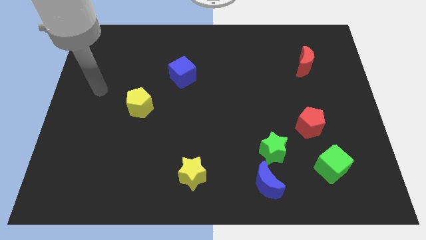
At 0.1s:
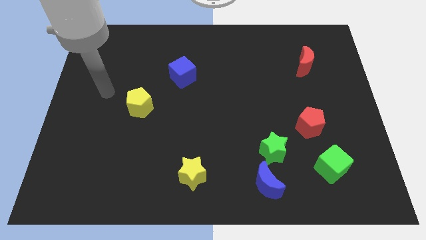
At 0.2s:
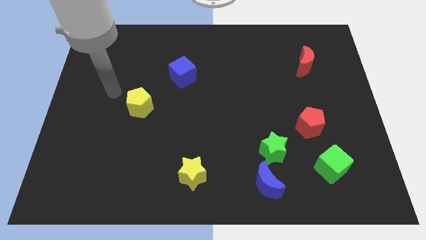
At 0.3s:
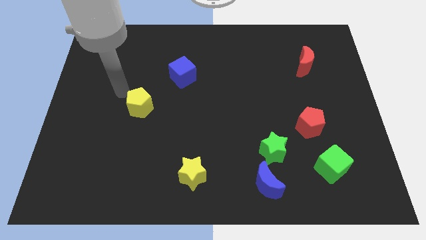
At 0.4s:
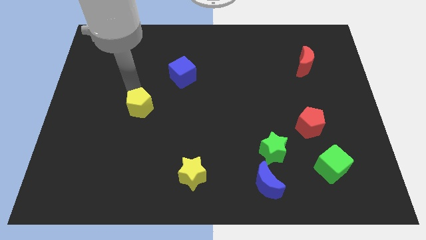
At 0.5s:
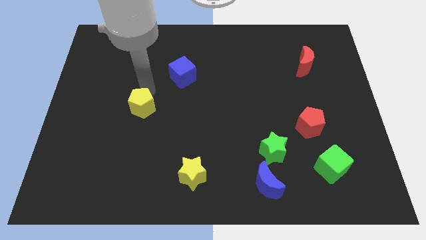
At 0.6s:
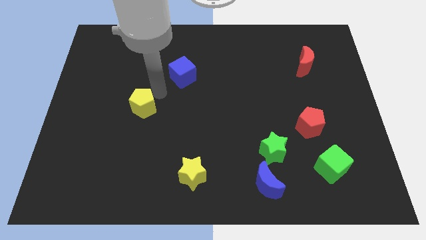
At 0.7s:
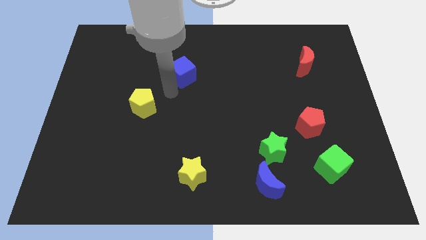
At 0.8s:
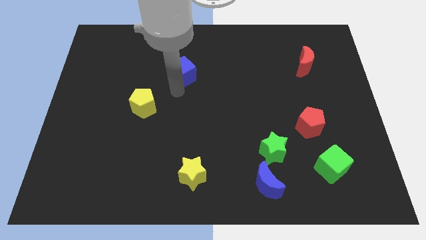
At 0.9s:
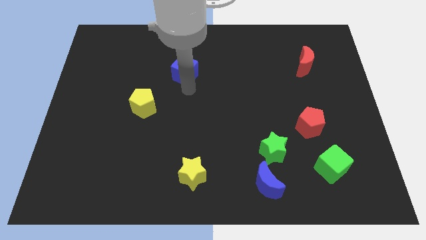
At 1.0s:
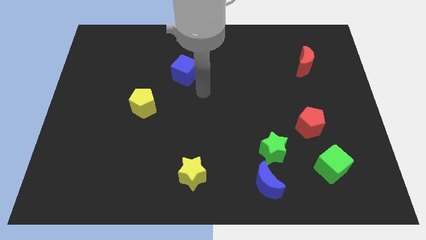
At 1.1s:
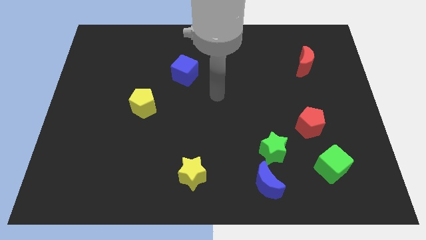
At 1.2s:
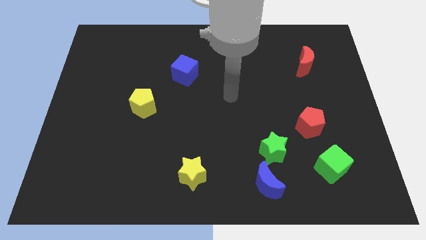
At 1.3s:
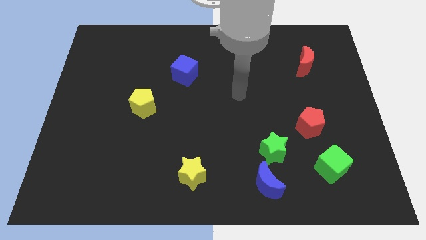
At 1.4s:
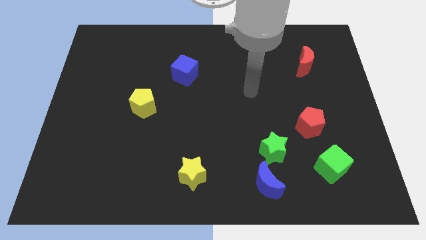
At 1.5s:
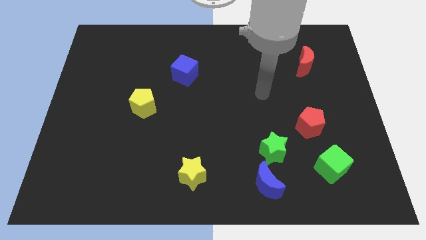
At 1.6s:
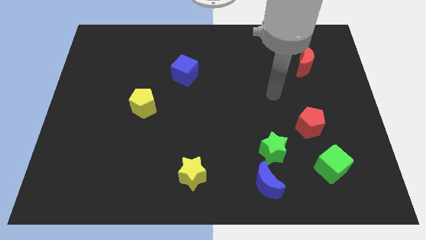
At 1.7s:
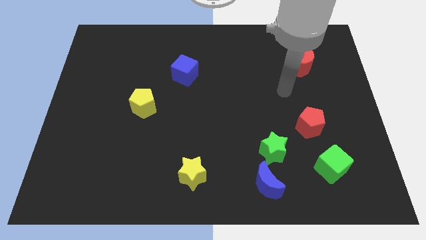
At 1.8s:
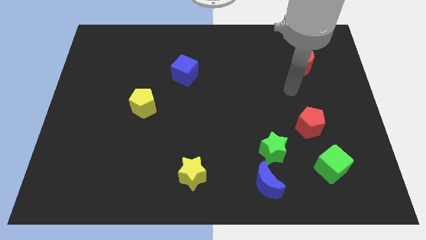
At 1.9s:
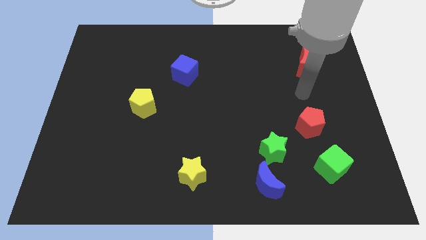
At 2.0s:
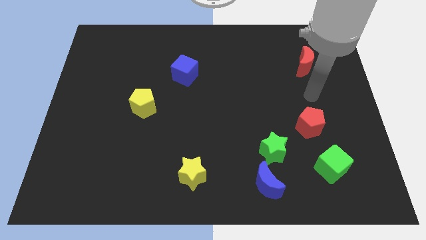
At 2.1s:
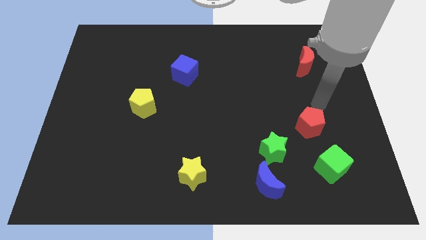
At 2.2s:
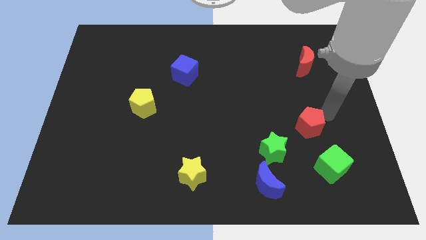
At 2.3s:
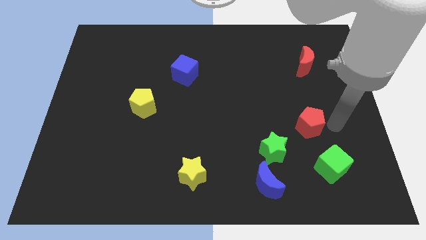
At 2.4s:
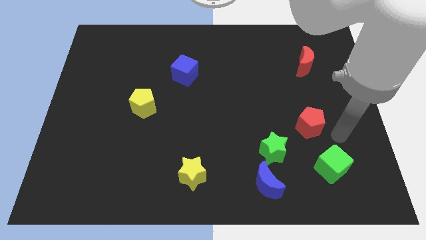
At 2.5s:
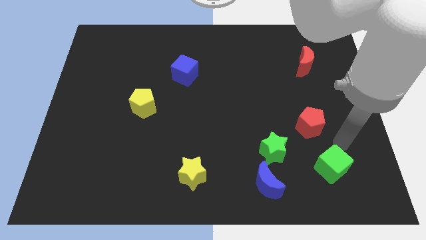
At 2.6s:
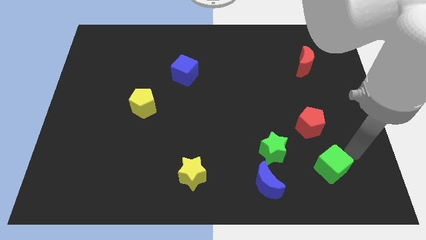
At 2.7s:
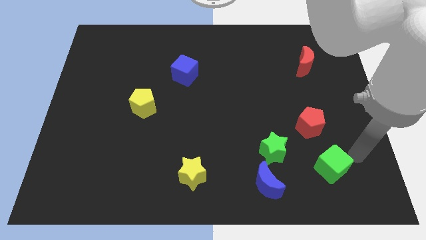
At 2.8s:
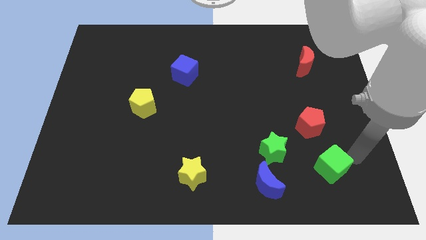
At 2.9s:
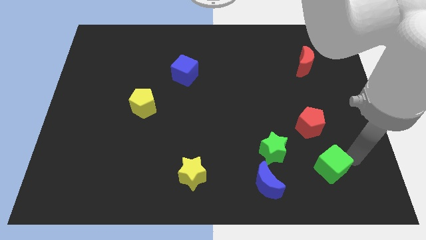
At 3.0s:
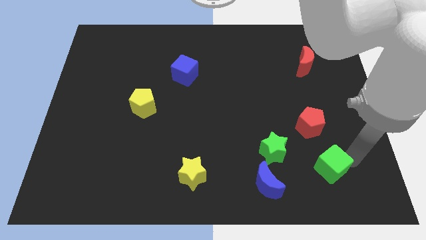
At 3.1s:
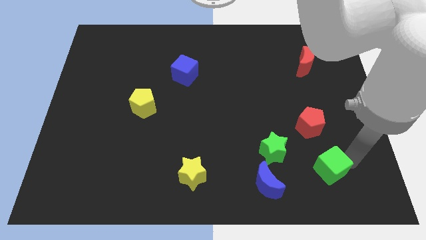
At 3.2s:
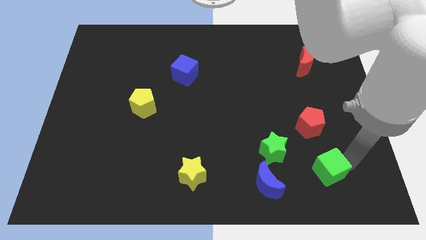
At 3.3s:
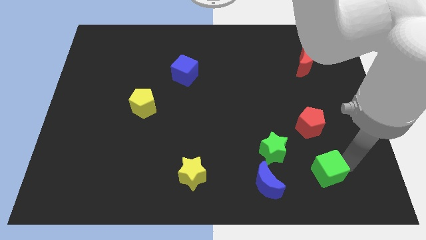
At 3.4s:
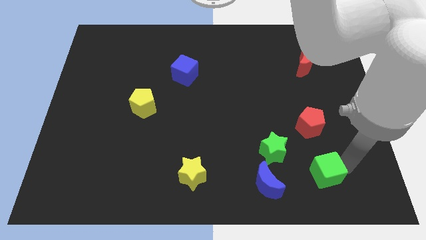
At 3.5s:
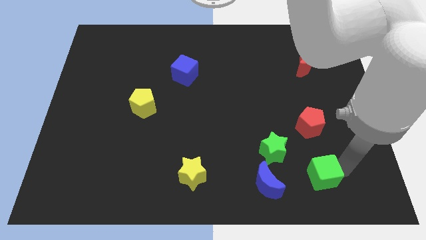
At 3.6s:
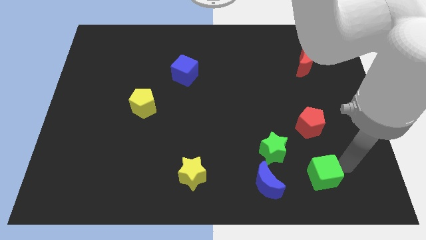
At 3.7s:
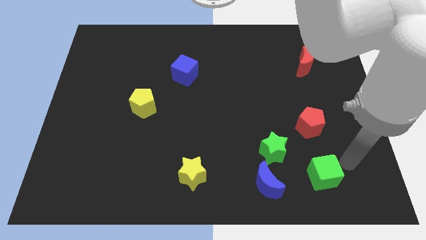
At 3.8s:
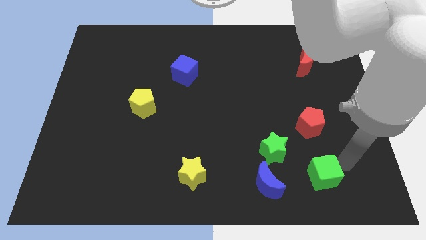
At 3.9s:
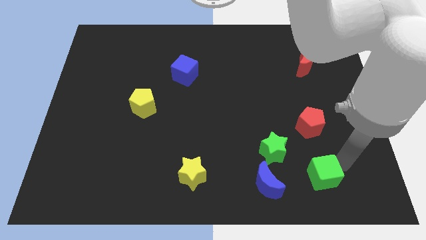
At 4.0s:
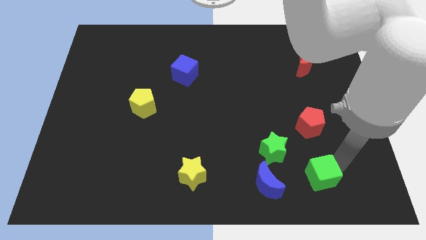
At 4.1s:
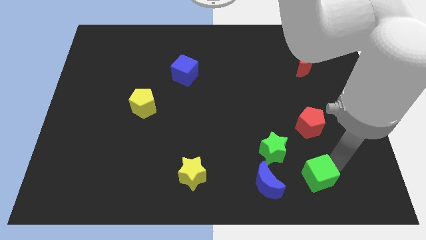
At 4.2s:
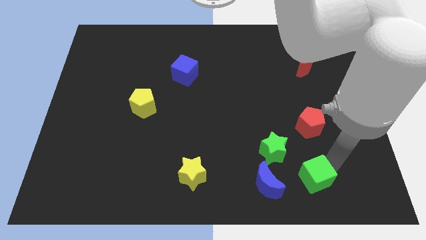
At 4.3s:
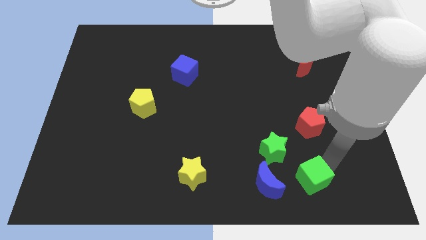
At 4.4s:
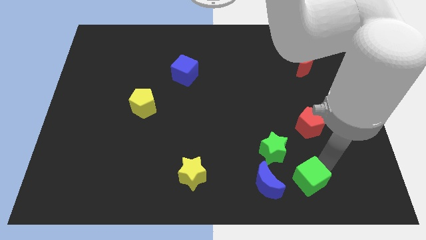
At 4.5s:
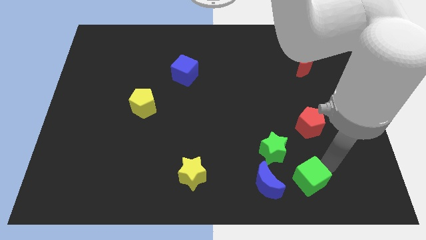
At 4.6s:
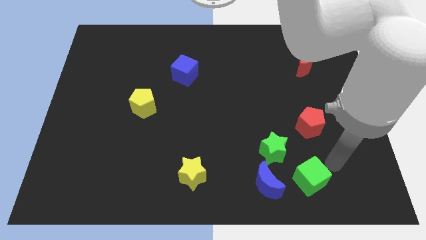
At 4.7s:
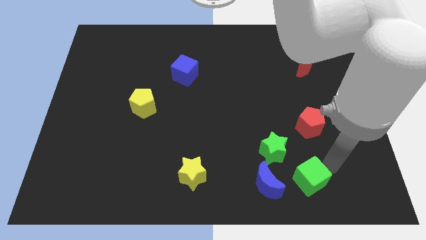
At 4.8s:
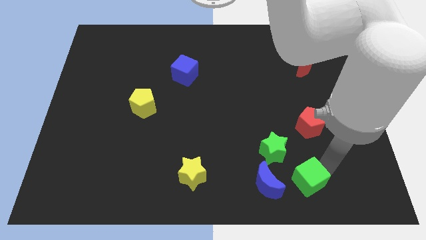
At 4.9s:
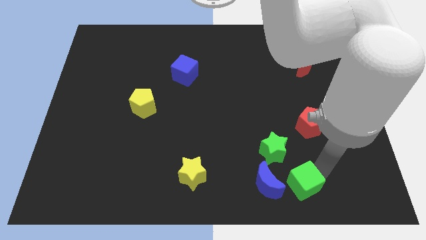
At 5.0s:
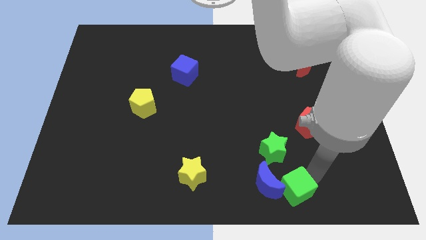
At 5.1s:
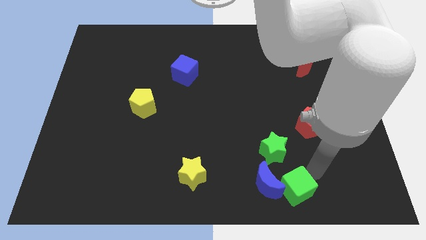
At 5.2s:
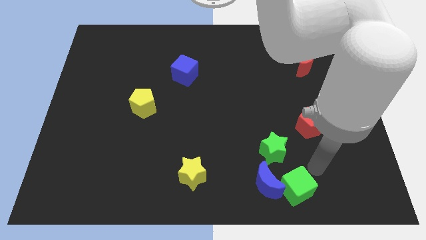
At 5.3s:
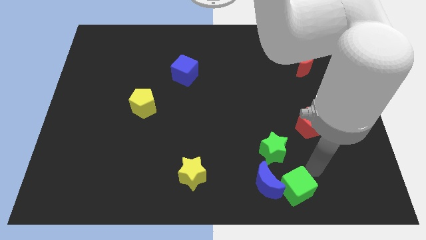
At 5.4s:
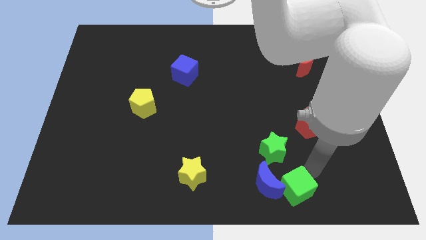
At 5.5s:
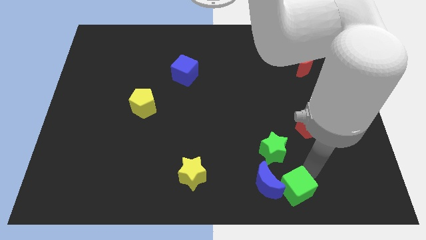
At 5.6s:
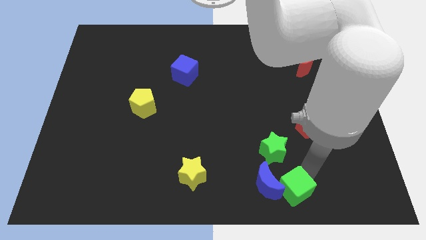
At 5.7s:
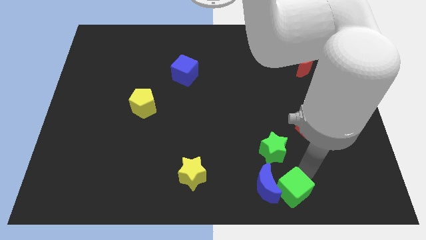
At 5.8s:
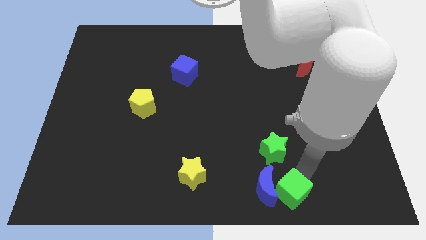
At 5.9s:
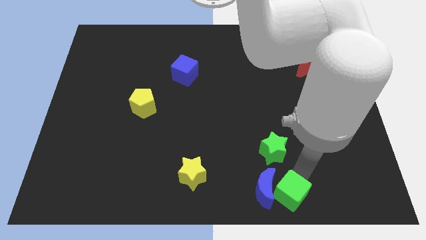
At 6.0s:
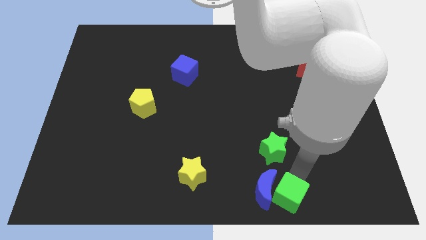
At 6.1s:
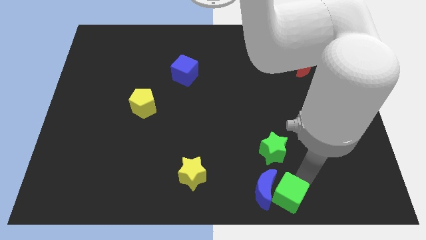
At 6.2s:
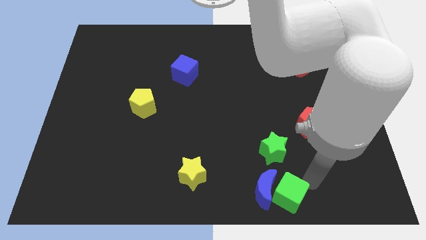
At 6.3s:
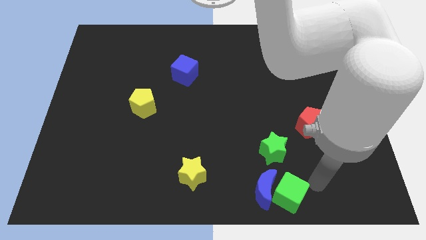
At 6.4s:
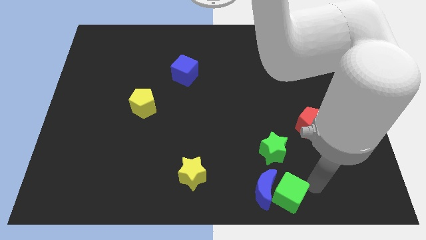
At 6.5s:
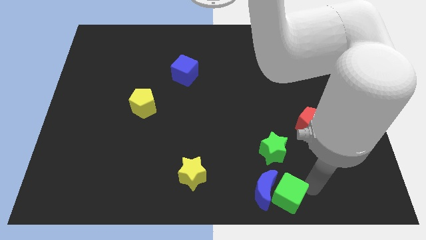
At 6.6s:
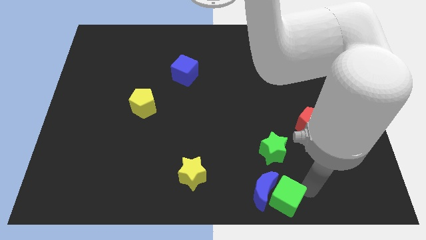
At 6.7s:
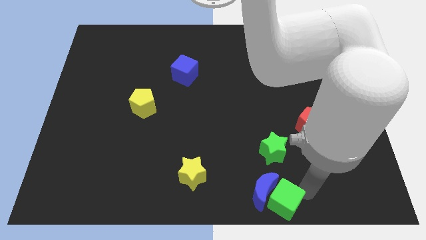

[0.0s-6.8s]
put the green cube to the bottom side
